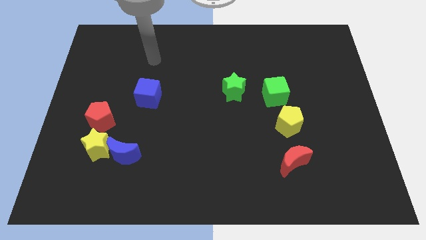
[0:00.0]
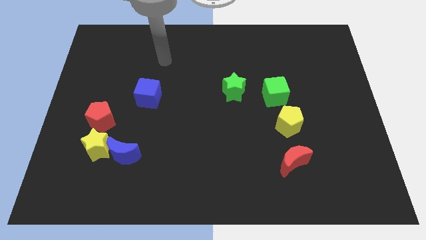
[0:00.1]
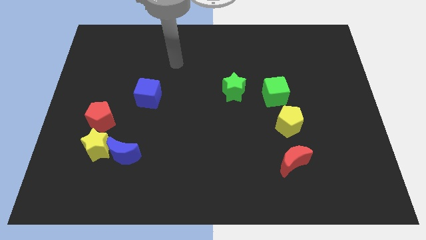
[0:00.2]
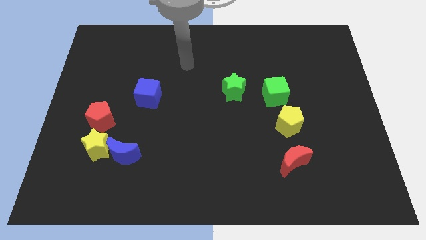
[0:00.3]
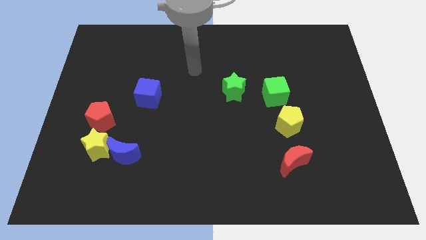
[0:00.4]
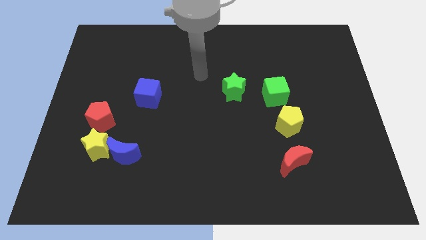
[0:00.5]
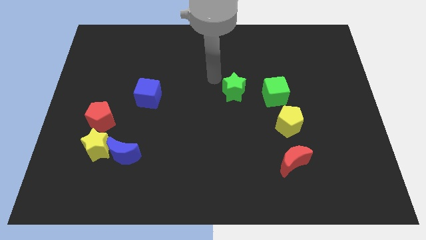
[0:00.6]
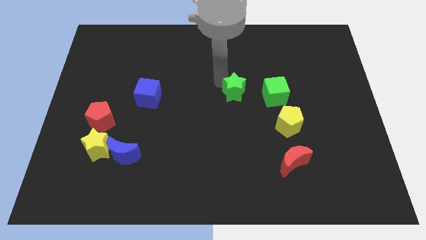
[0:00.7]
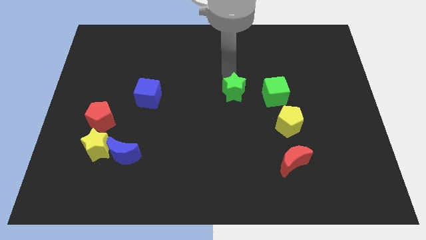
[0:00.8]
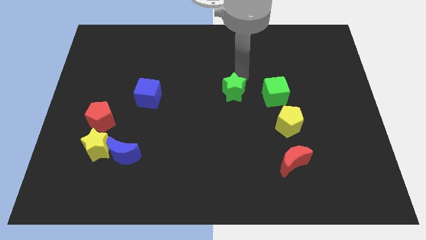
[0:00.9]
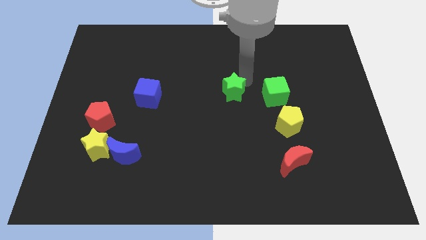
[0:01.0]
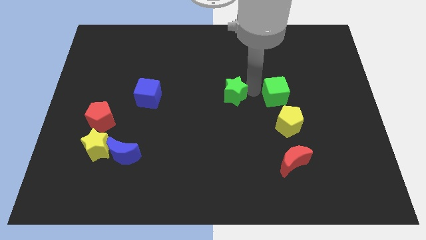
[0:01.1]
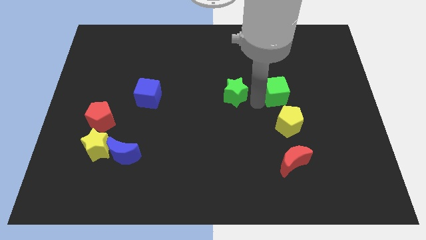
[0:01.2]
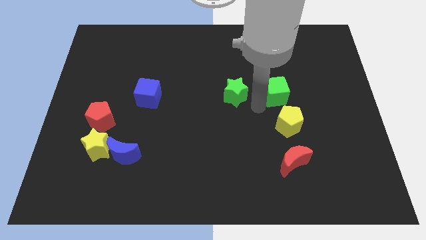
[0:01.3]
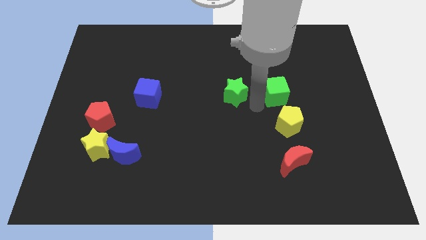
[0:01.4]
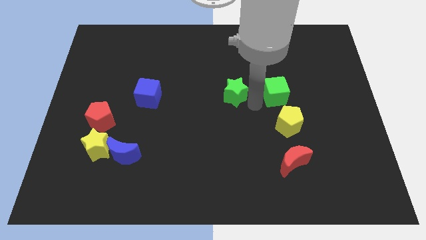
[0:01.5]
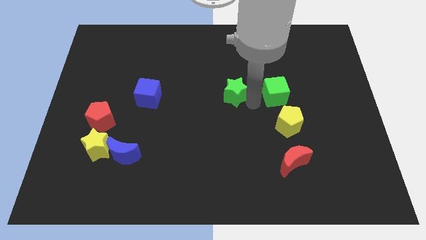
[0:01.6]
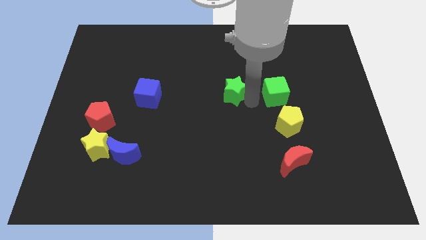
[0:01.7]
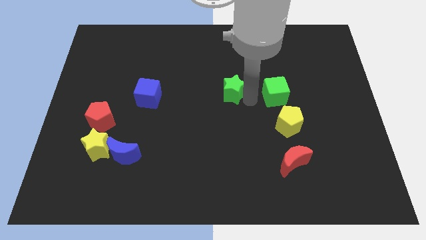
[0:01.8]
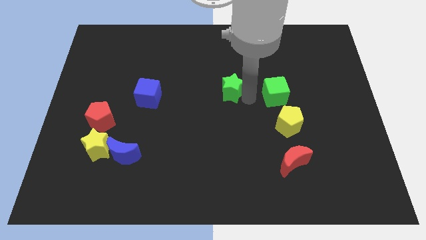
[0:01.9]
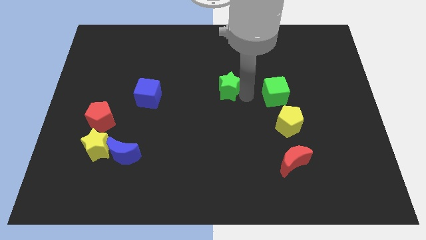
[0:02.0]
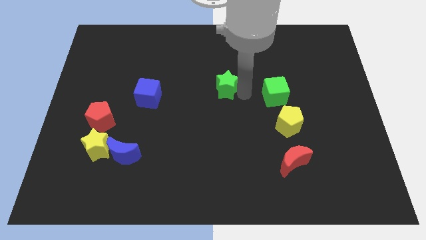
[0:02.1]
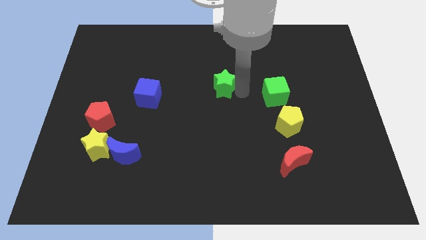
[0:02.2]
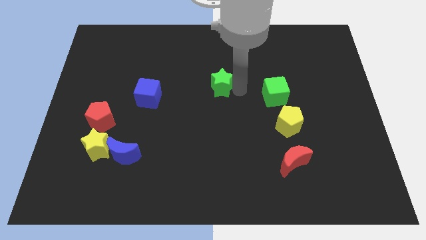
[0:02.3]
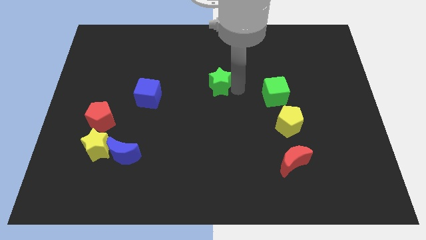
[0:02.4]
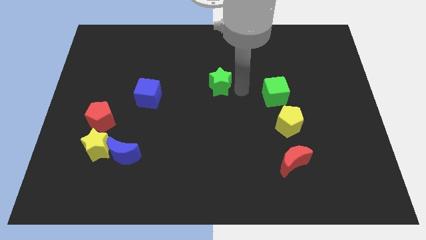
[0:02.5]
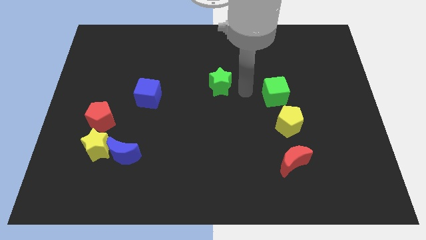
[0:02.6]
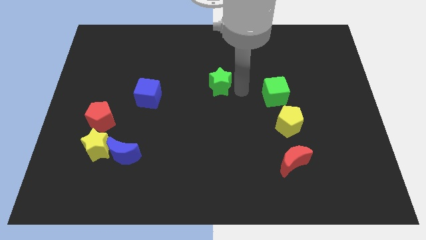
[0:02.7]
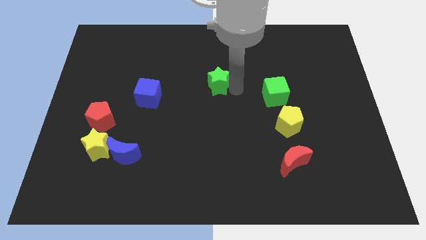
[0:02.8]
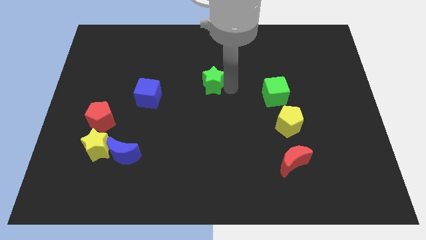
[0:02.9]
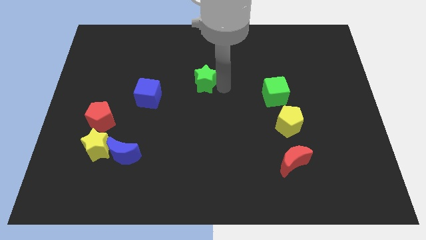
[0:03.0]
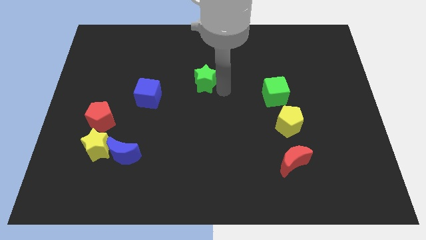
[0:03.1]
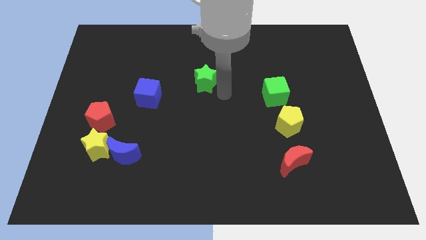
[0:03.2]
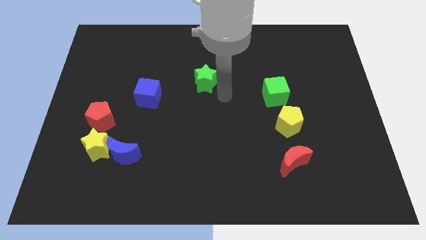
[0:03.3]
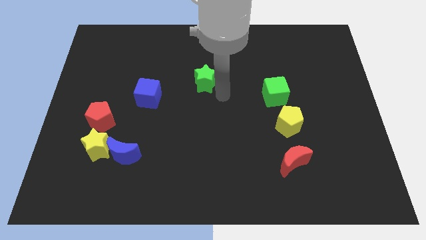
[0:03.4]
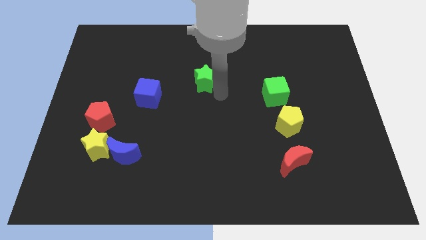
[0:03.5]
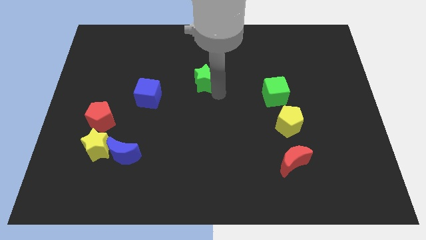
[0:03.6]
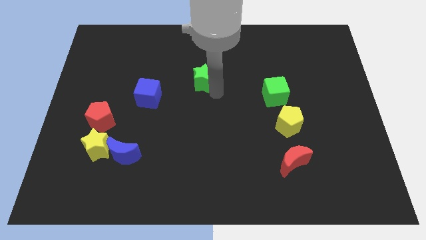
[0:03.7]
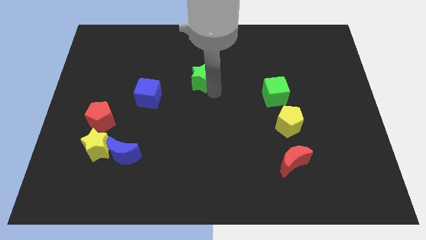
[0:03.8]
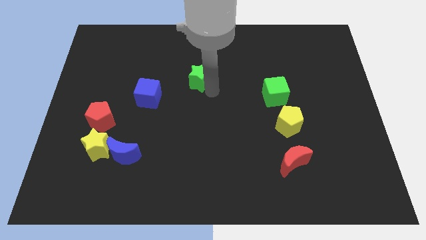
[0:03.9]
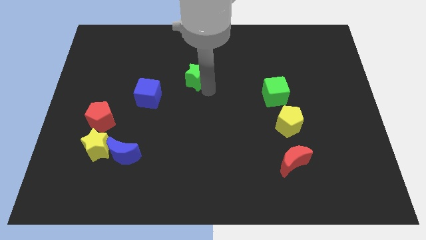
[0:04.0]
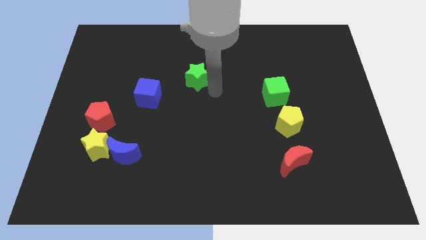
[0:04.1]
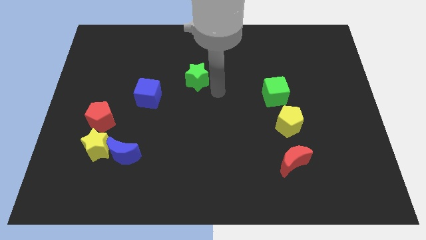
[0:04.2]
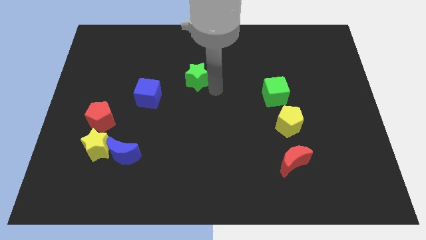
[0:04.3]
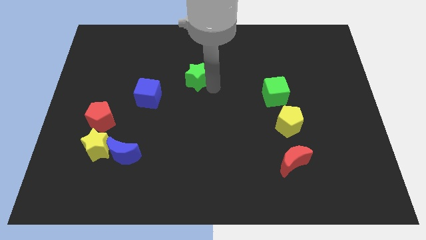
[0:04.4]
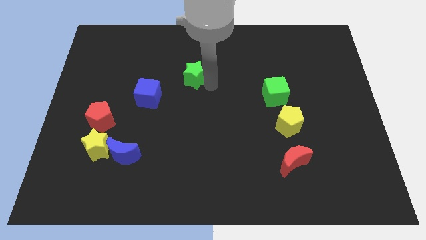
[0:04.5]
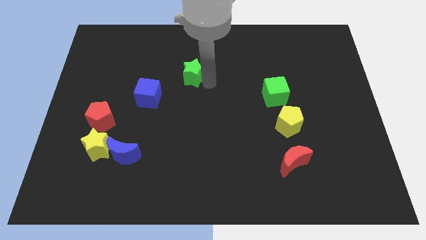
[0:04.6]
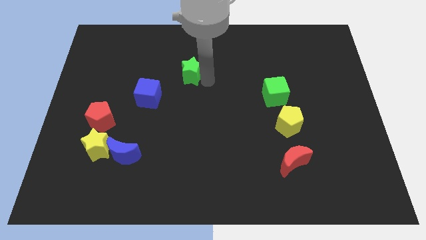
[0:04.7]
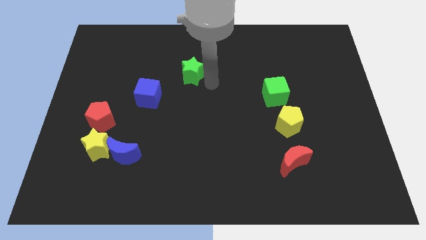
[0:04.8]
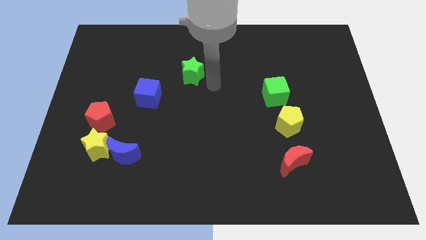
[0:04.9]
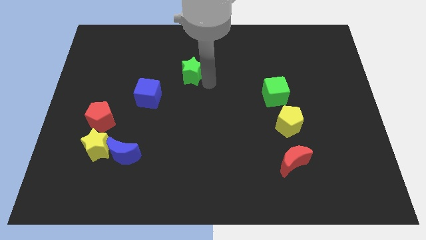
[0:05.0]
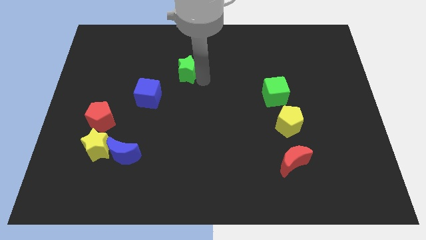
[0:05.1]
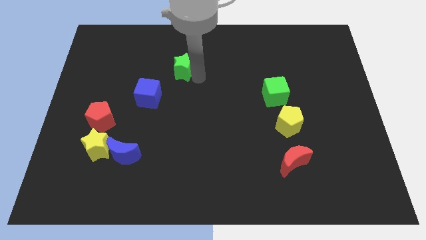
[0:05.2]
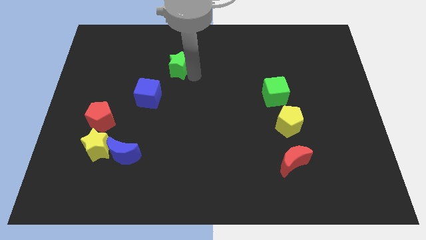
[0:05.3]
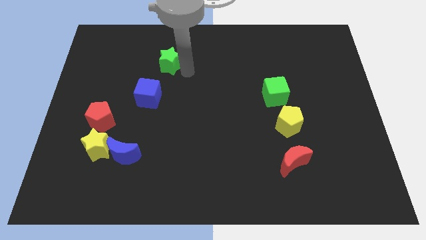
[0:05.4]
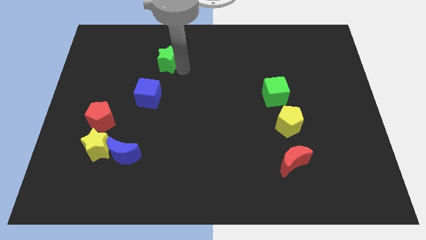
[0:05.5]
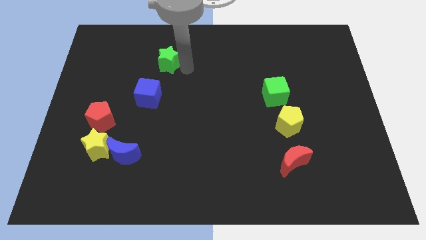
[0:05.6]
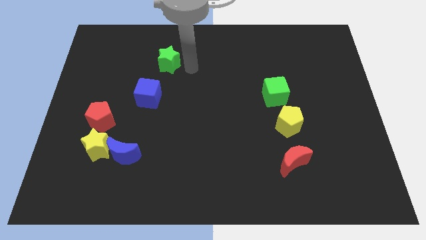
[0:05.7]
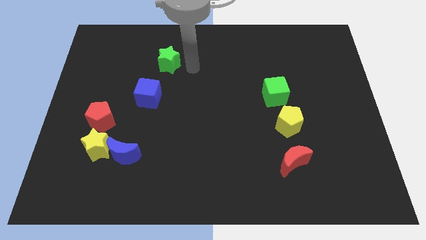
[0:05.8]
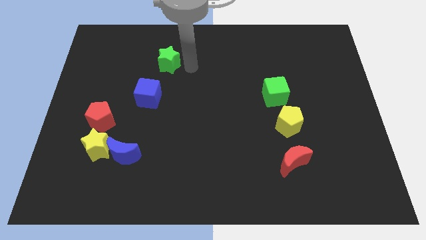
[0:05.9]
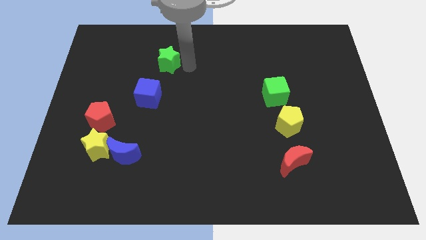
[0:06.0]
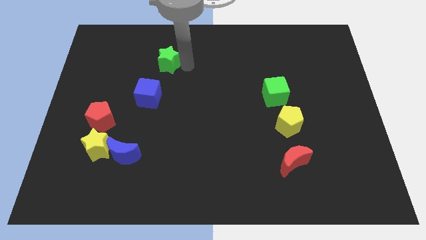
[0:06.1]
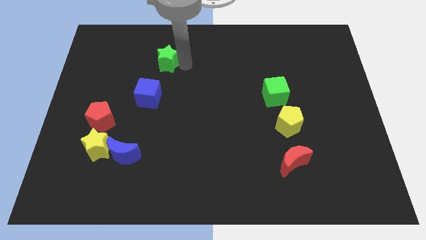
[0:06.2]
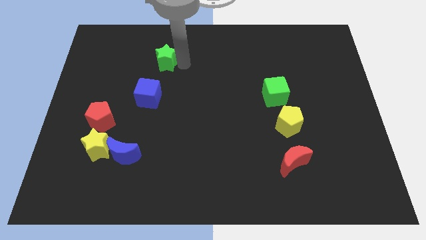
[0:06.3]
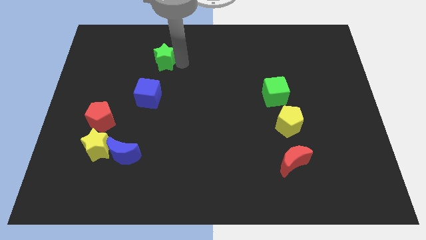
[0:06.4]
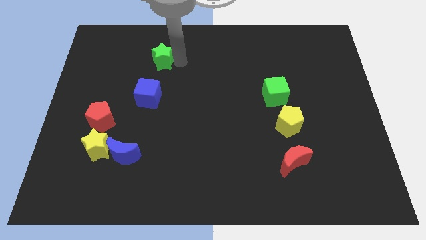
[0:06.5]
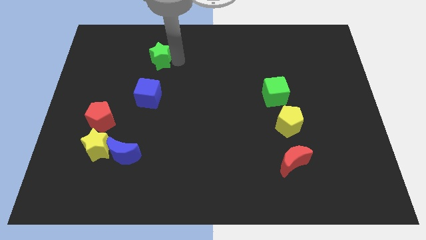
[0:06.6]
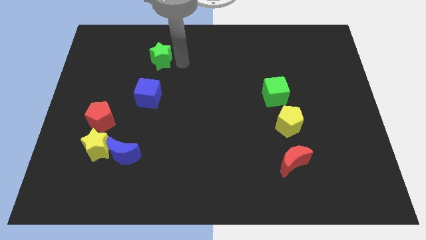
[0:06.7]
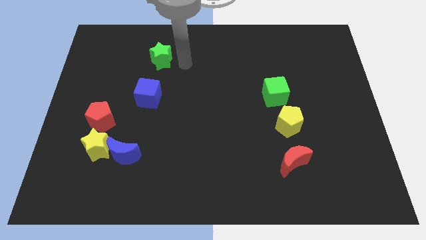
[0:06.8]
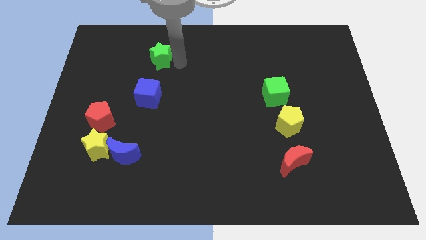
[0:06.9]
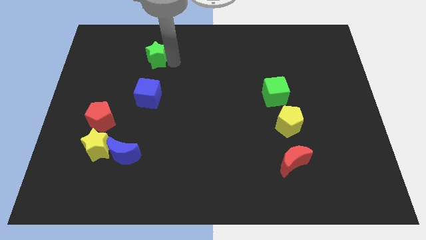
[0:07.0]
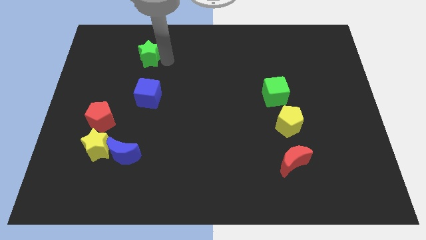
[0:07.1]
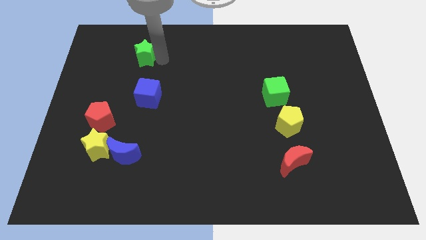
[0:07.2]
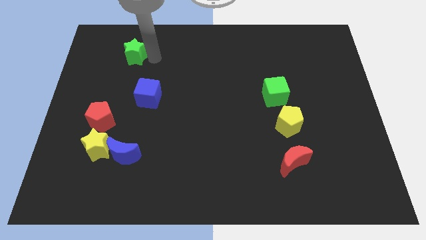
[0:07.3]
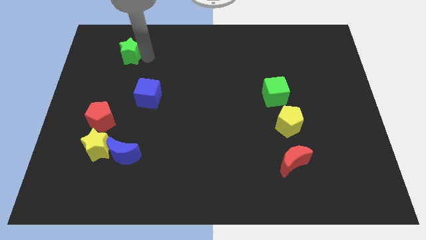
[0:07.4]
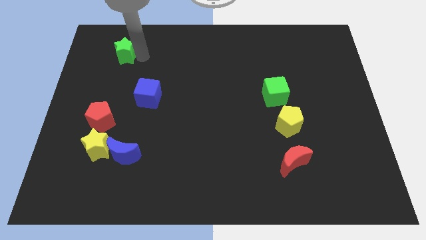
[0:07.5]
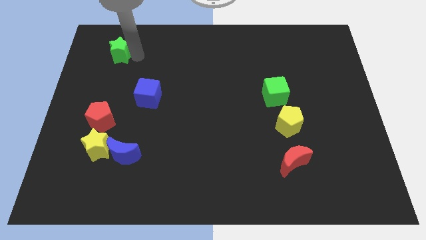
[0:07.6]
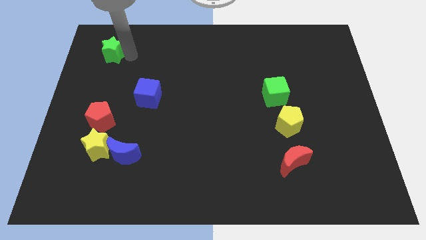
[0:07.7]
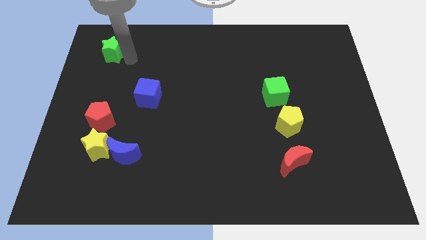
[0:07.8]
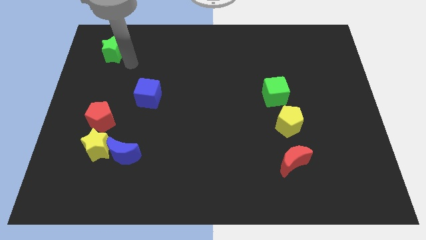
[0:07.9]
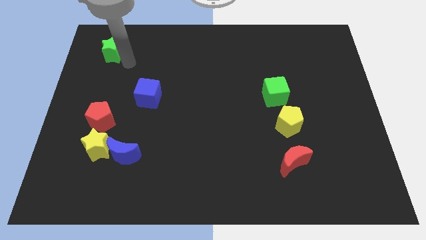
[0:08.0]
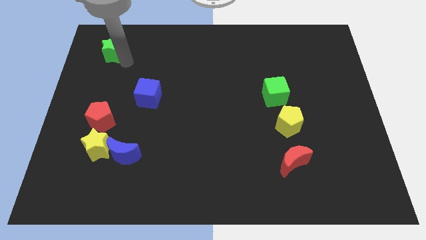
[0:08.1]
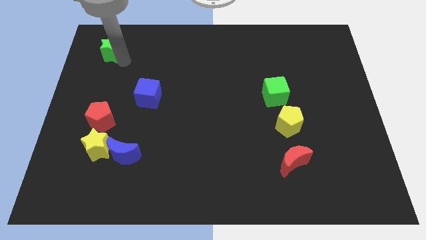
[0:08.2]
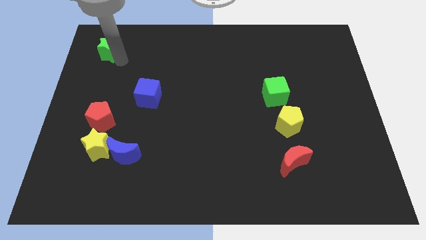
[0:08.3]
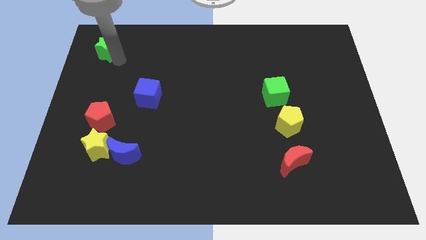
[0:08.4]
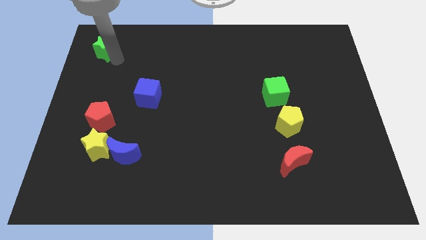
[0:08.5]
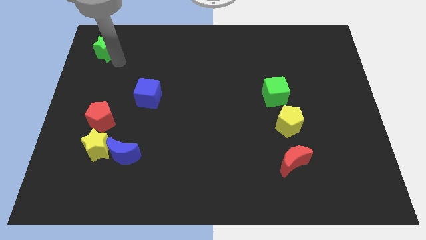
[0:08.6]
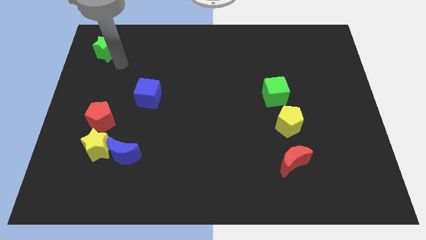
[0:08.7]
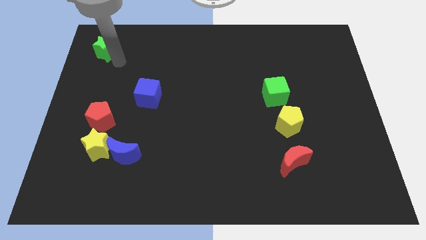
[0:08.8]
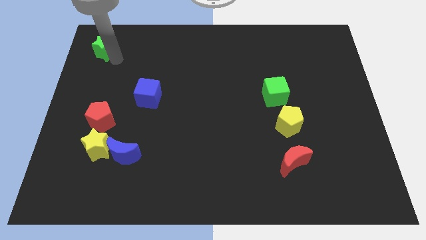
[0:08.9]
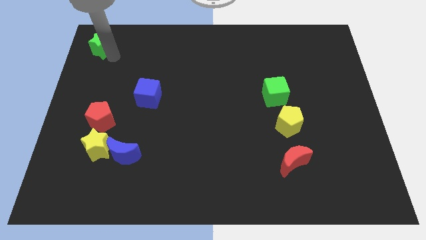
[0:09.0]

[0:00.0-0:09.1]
put the green star to the top left of the board
